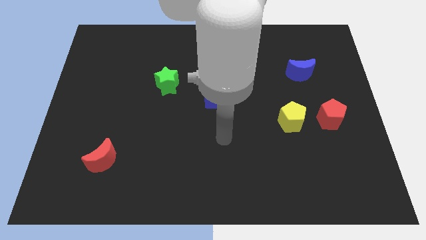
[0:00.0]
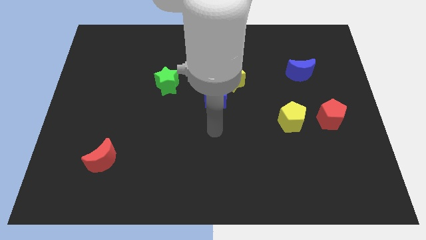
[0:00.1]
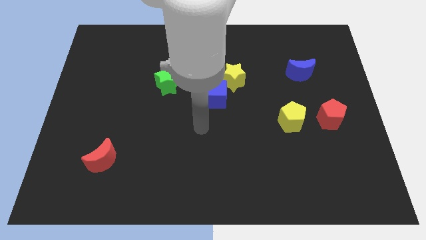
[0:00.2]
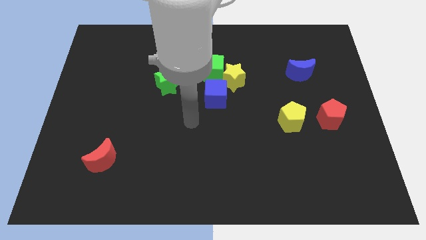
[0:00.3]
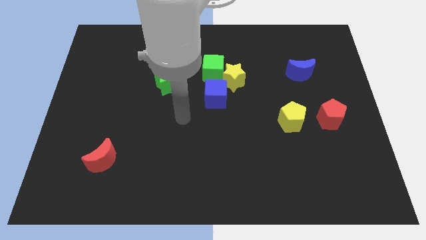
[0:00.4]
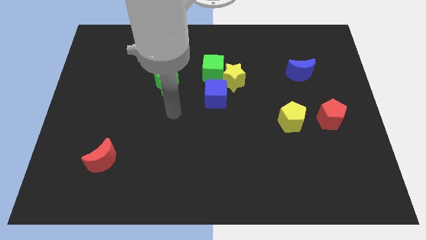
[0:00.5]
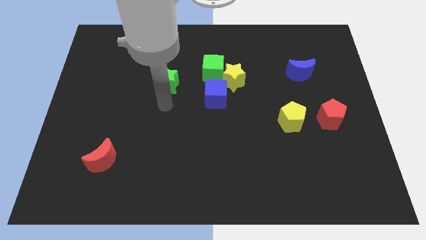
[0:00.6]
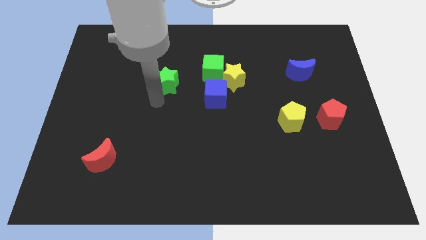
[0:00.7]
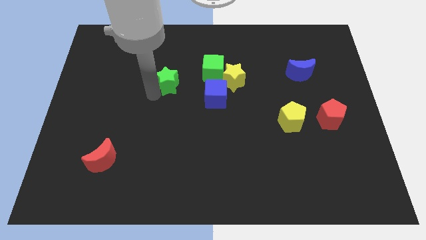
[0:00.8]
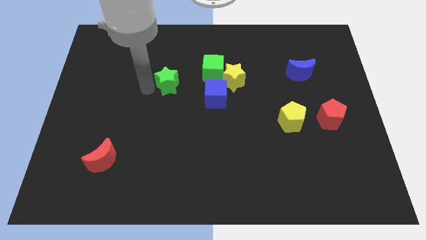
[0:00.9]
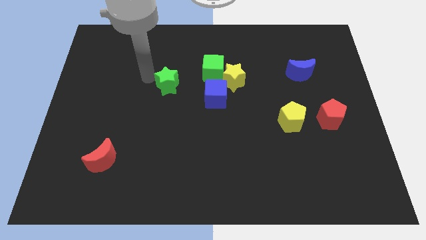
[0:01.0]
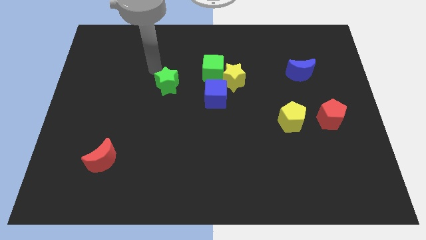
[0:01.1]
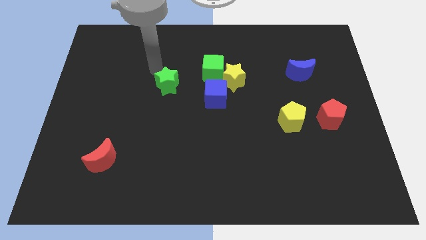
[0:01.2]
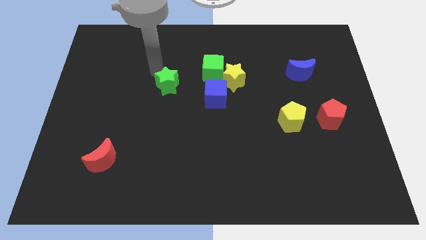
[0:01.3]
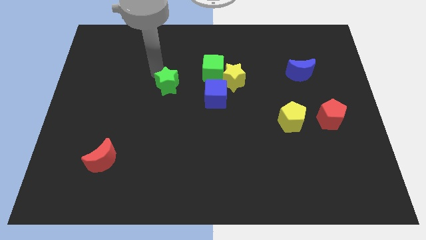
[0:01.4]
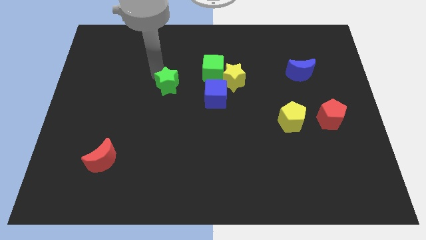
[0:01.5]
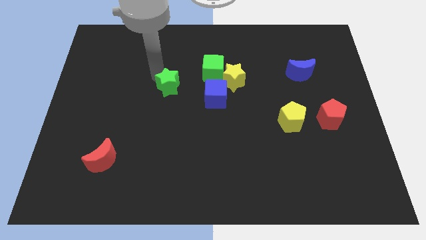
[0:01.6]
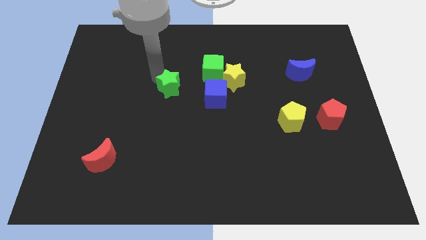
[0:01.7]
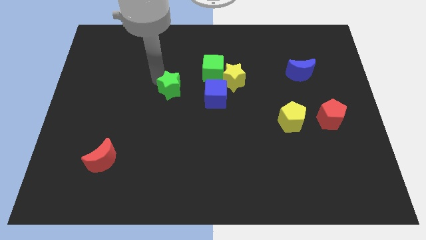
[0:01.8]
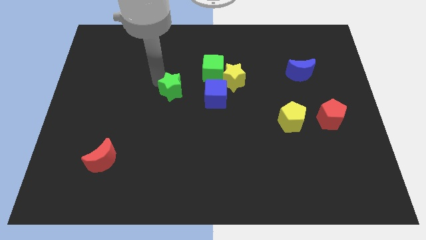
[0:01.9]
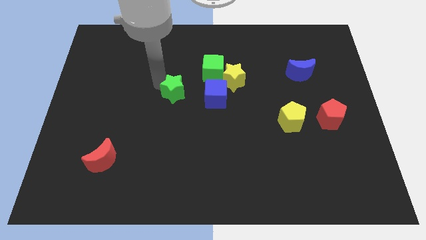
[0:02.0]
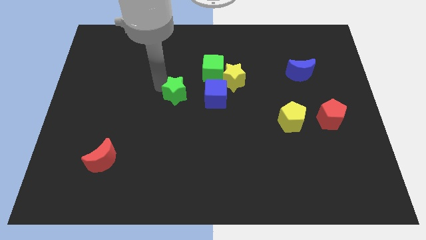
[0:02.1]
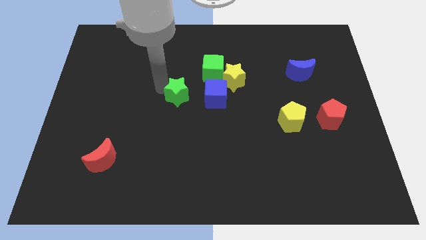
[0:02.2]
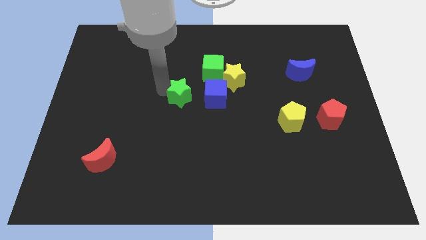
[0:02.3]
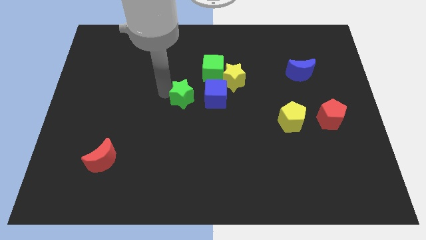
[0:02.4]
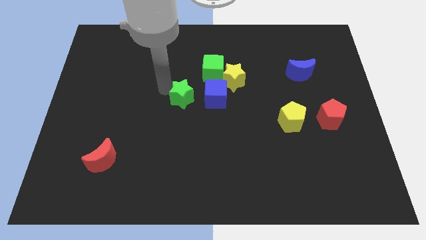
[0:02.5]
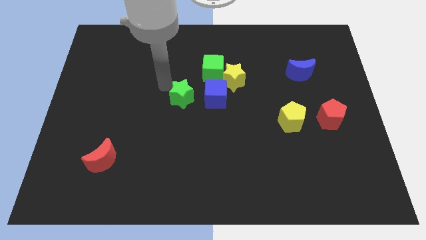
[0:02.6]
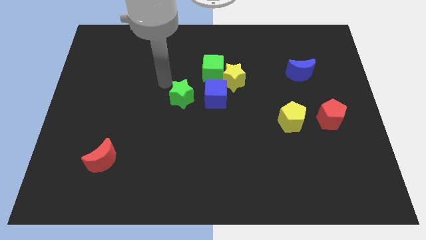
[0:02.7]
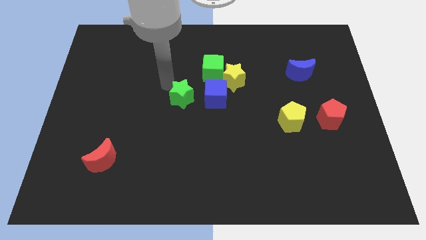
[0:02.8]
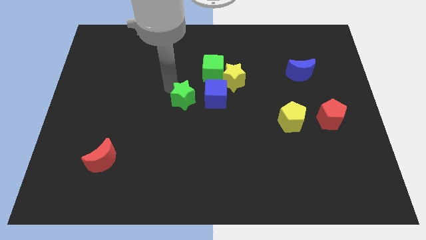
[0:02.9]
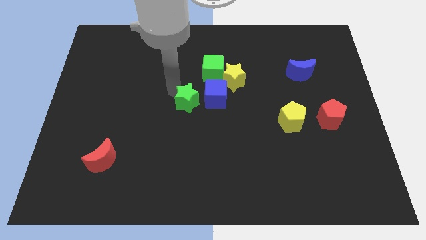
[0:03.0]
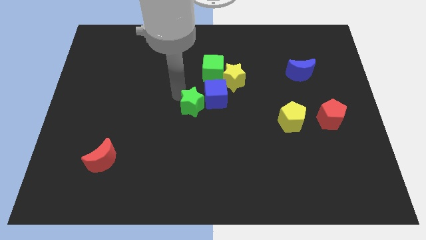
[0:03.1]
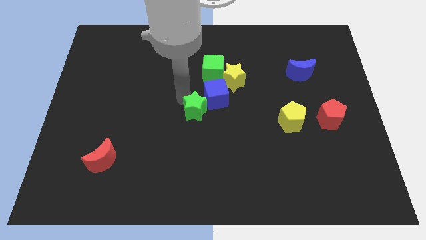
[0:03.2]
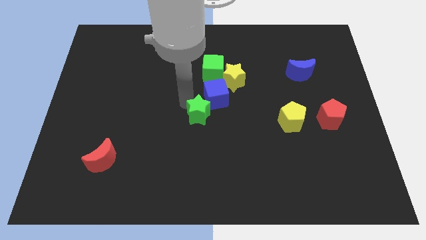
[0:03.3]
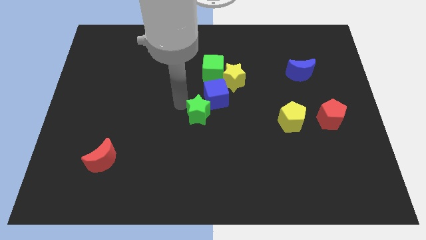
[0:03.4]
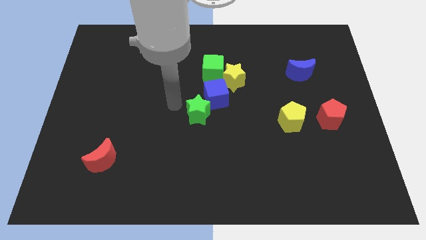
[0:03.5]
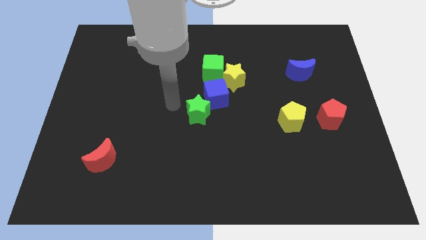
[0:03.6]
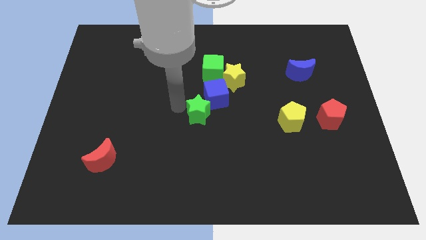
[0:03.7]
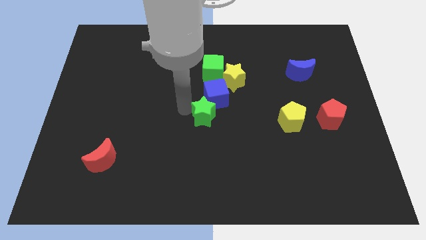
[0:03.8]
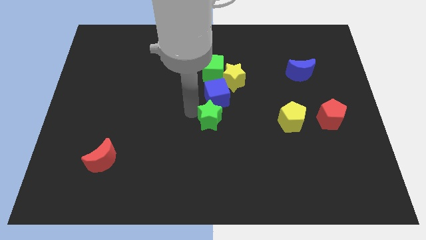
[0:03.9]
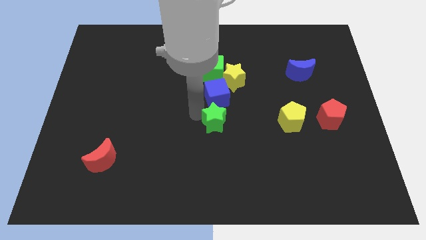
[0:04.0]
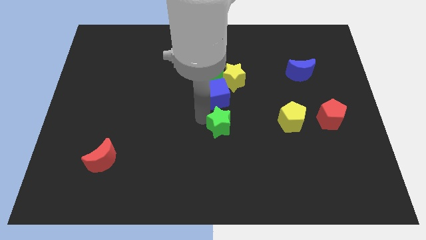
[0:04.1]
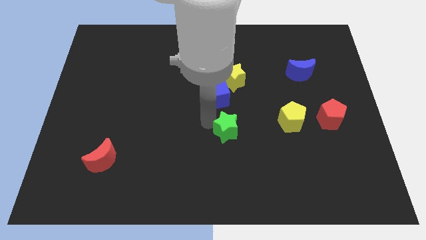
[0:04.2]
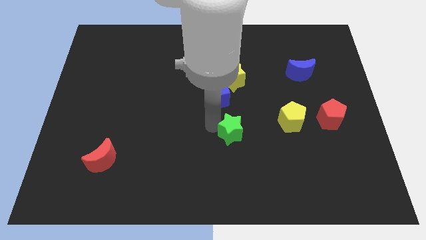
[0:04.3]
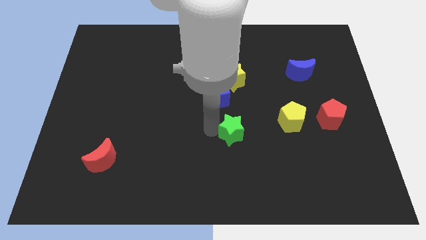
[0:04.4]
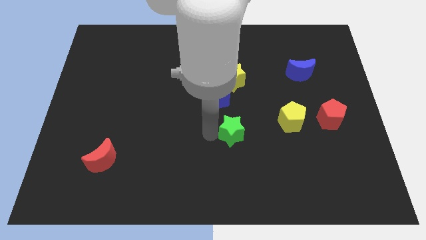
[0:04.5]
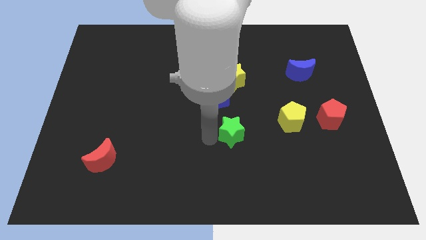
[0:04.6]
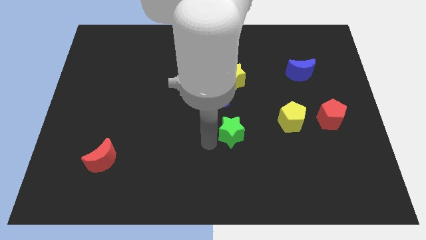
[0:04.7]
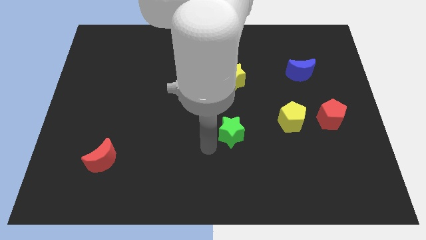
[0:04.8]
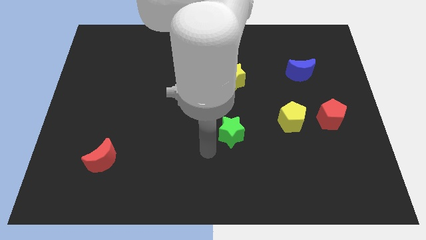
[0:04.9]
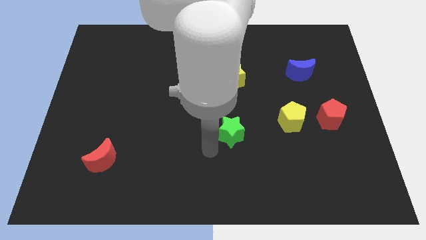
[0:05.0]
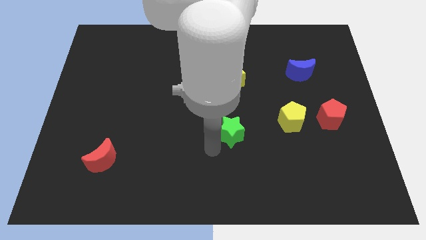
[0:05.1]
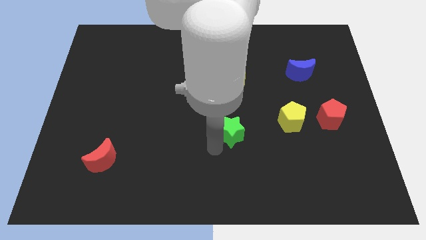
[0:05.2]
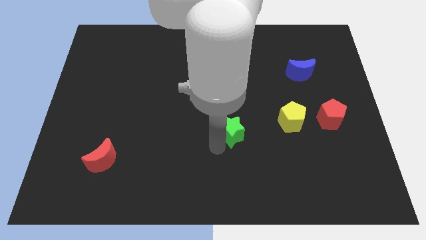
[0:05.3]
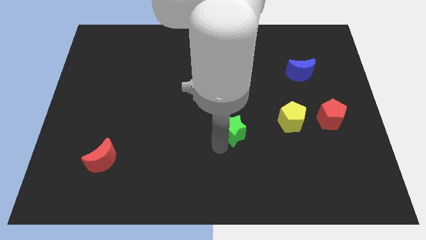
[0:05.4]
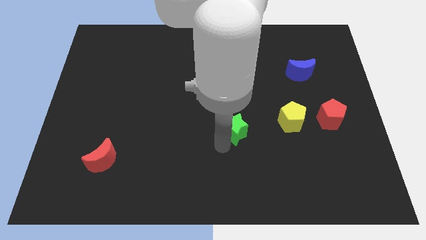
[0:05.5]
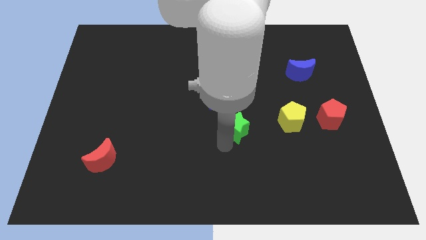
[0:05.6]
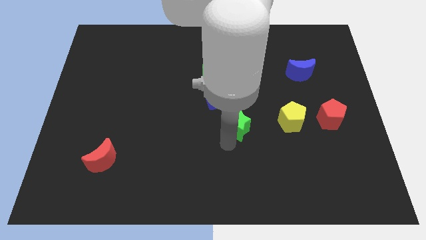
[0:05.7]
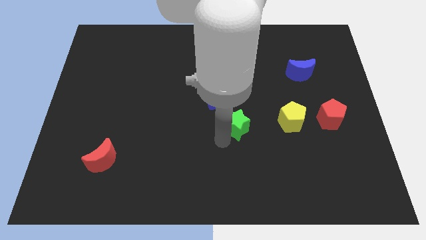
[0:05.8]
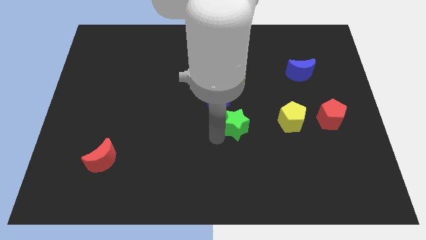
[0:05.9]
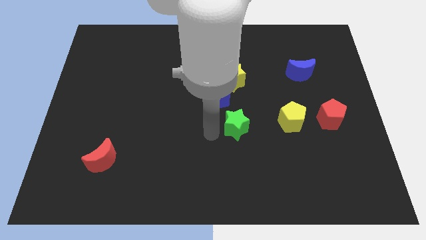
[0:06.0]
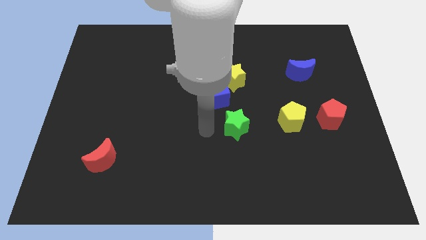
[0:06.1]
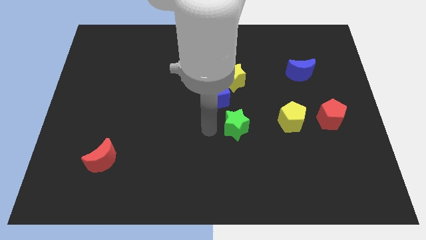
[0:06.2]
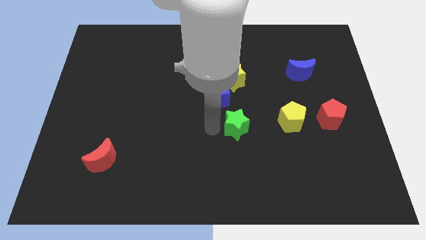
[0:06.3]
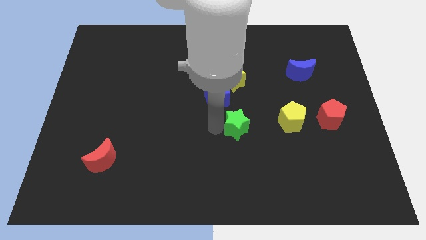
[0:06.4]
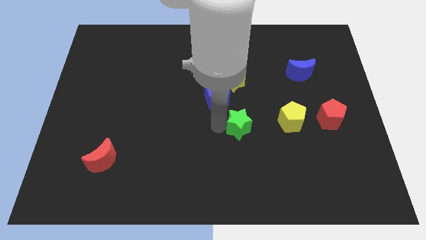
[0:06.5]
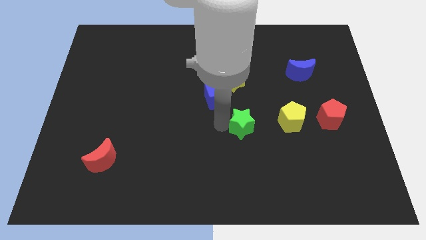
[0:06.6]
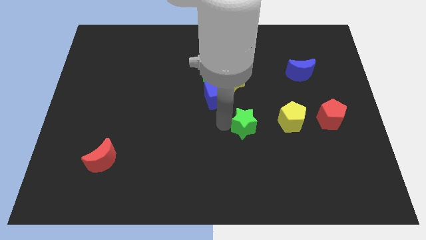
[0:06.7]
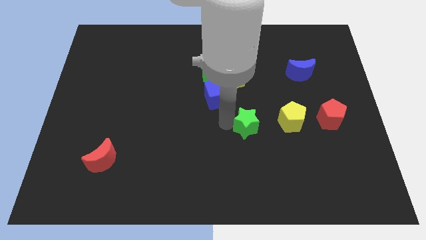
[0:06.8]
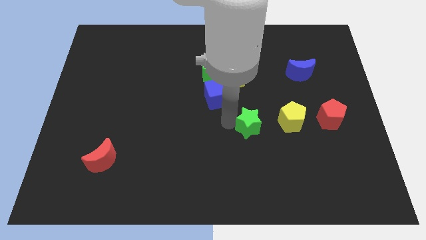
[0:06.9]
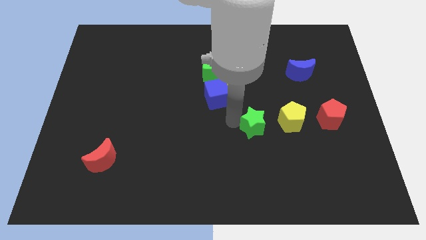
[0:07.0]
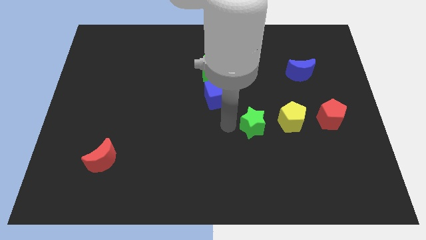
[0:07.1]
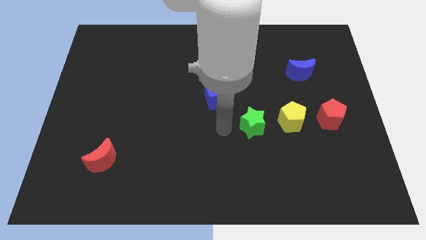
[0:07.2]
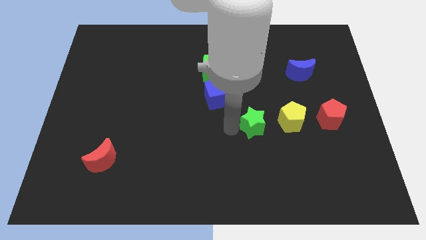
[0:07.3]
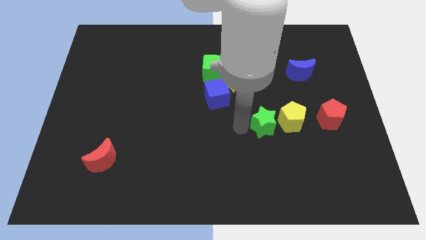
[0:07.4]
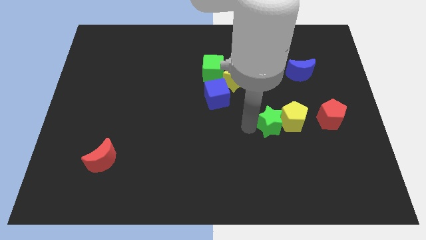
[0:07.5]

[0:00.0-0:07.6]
move the green star towards the yellow pentagon
